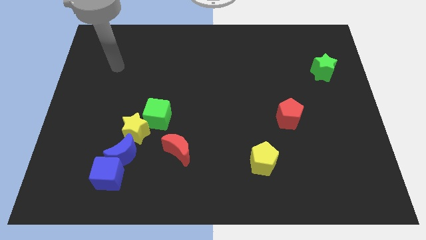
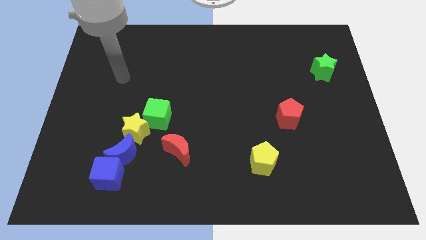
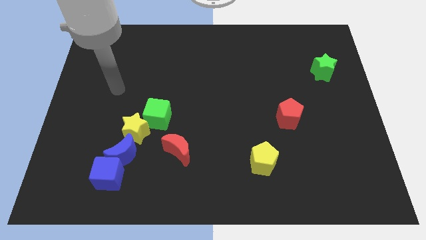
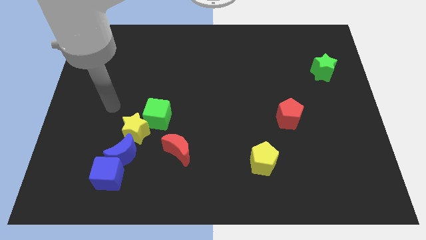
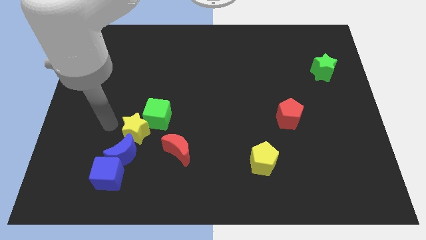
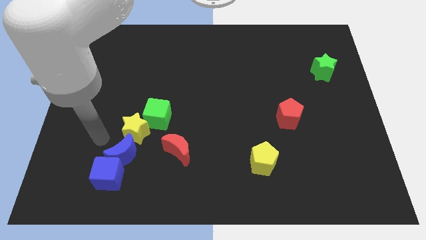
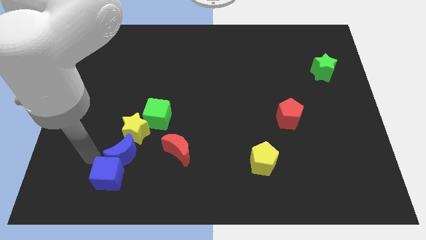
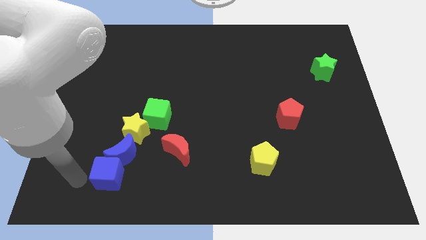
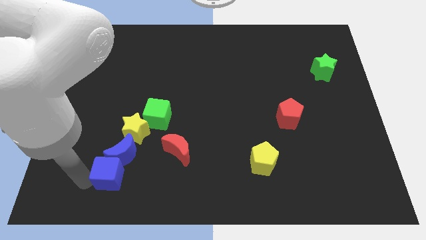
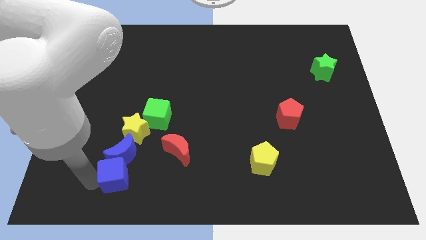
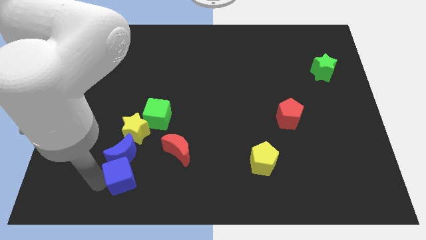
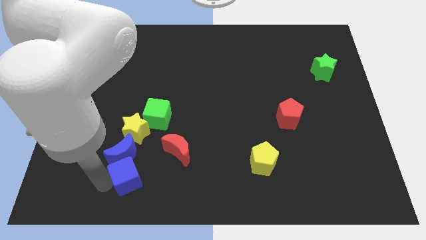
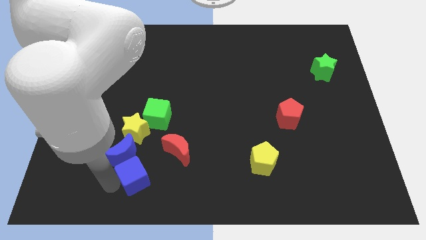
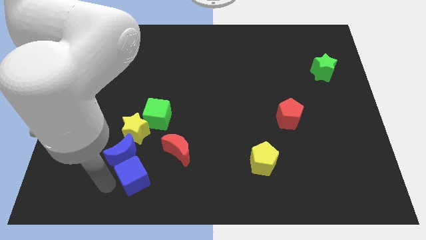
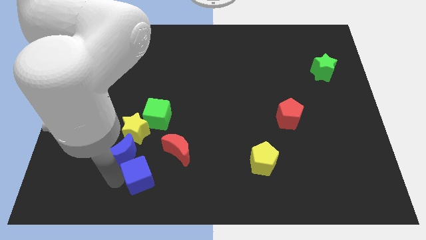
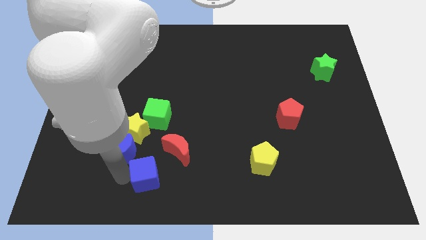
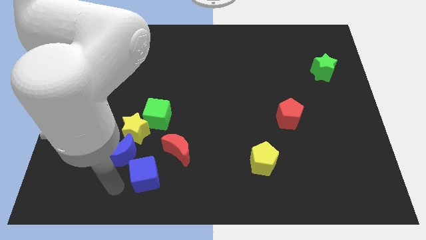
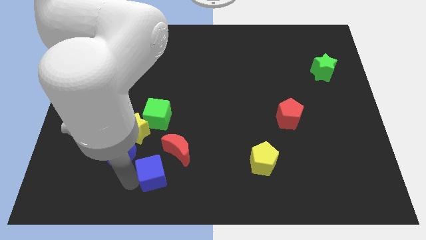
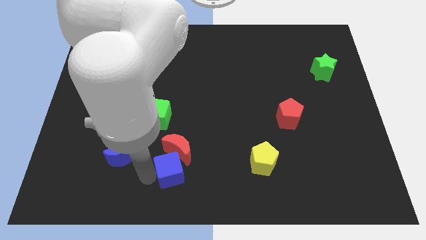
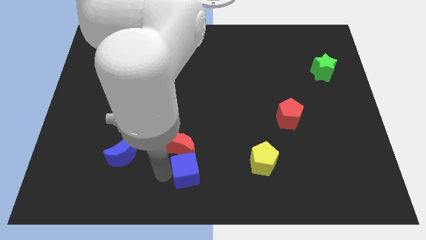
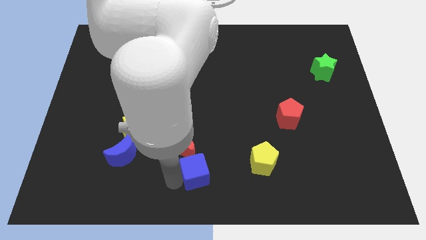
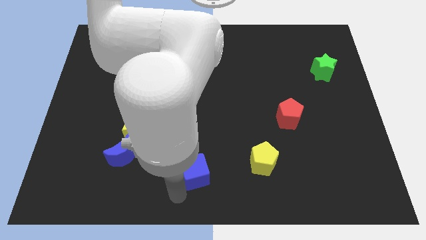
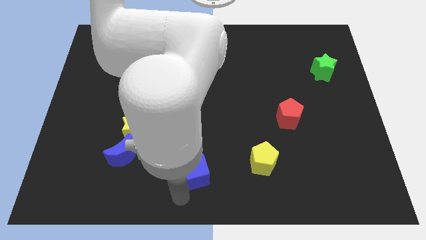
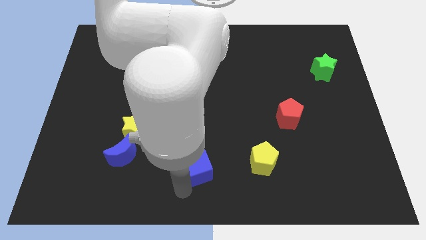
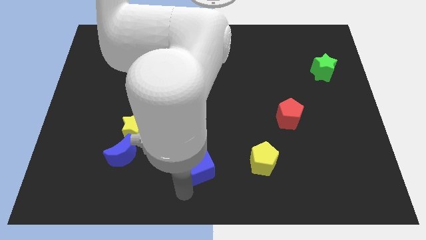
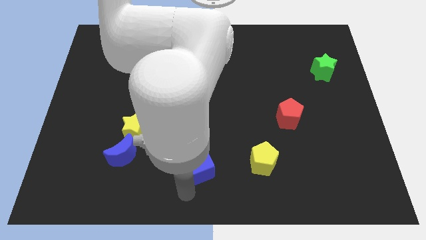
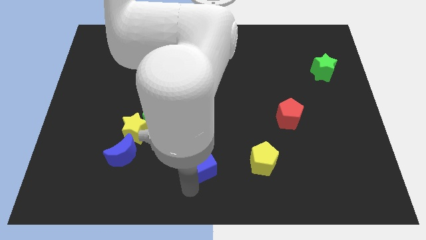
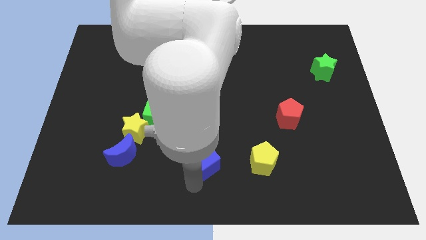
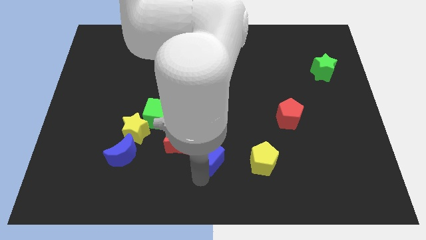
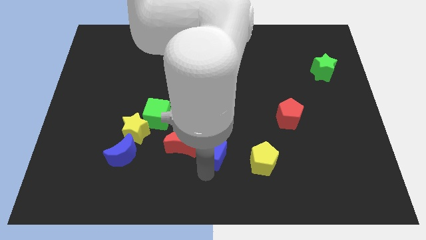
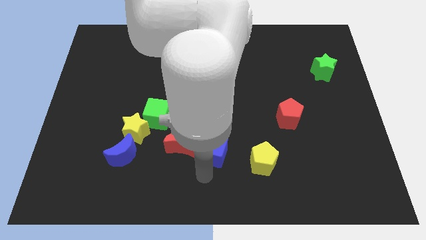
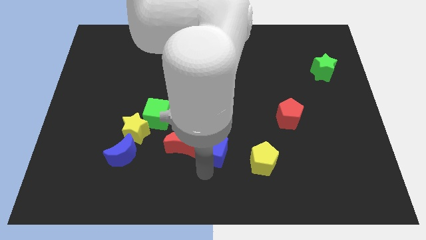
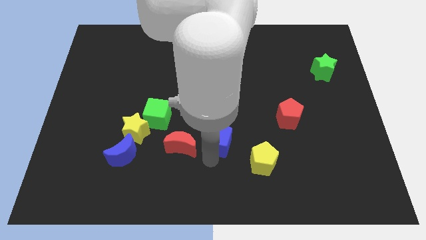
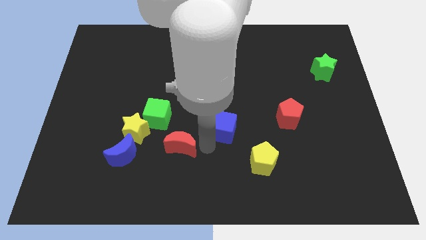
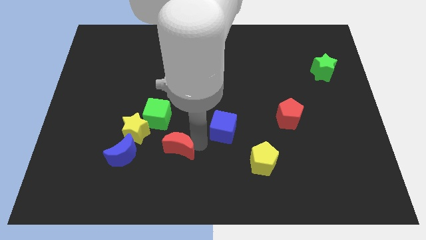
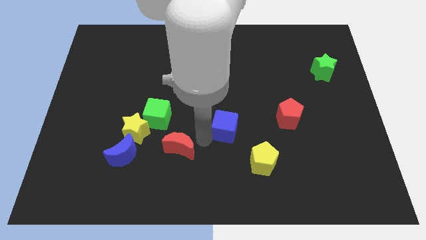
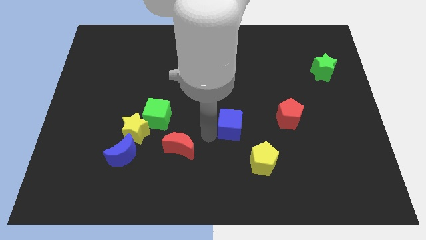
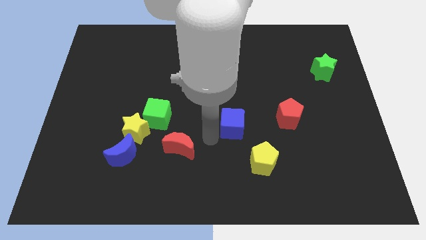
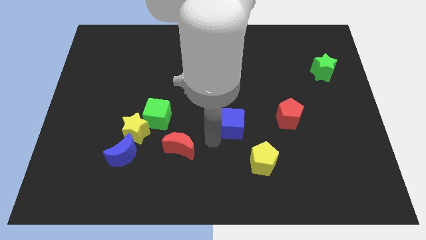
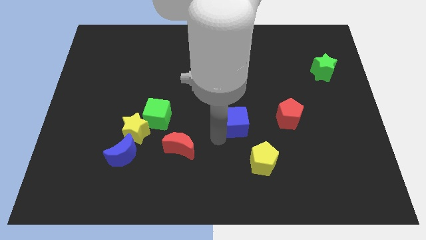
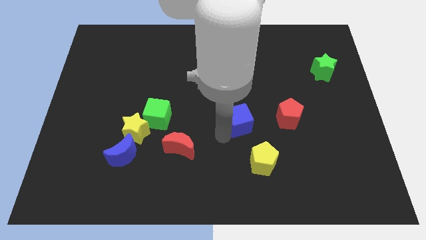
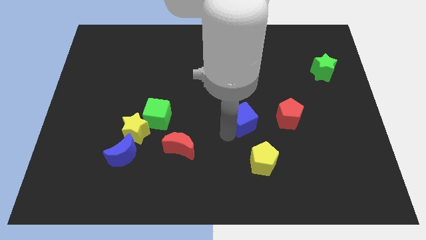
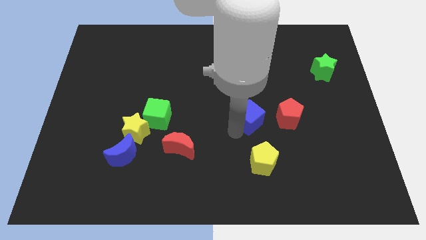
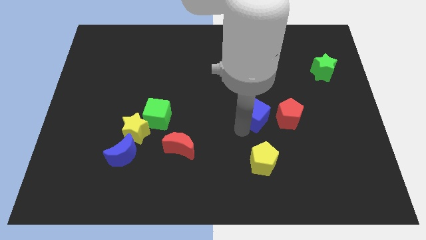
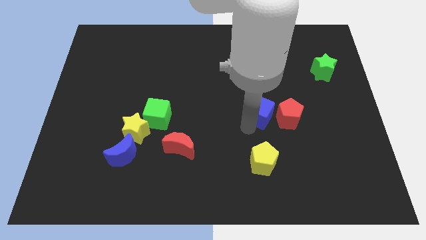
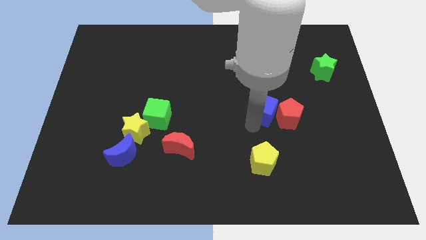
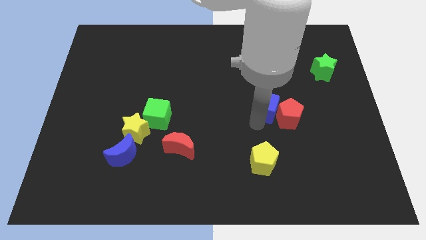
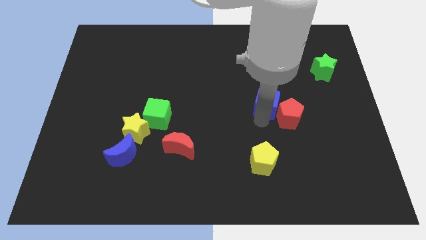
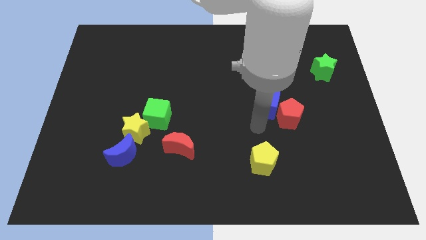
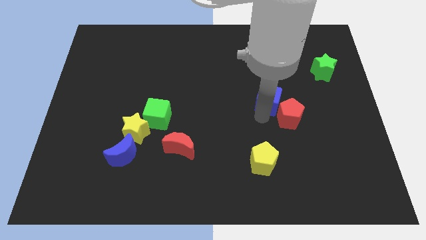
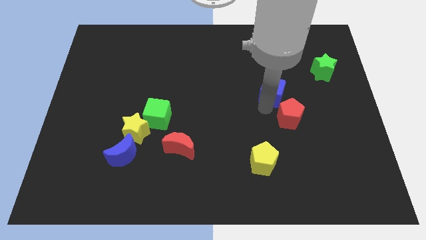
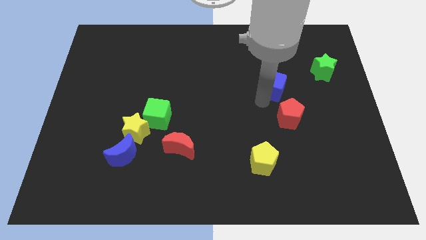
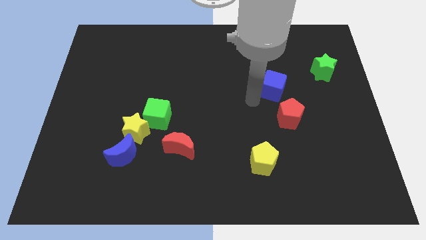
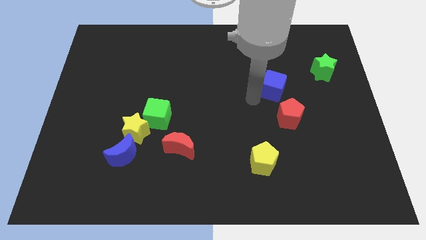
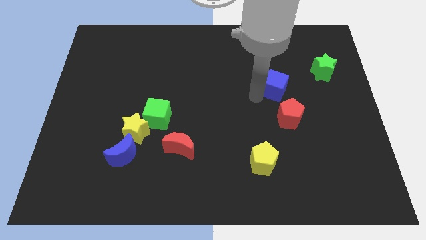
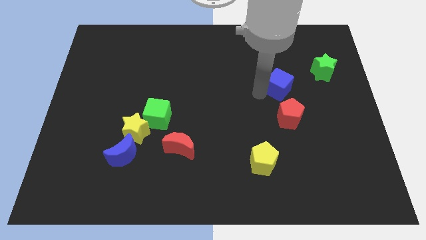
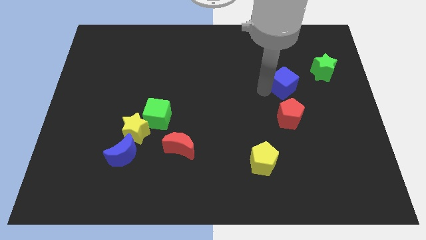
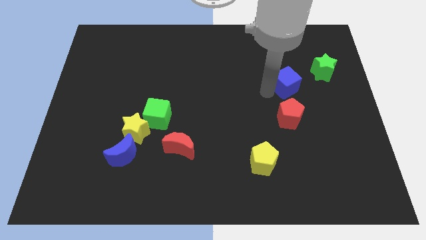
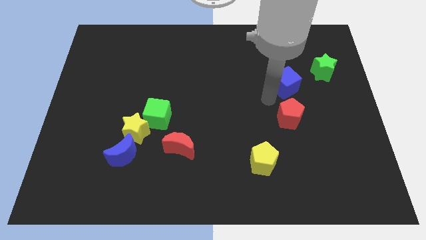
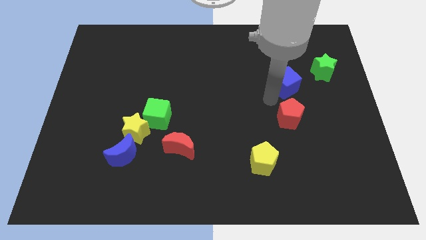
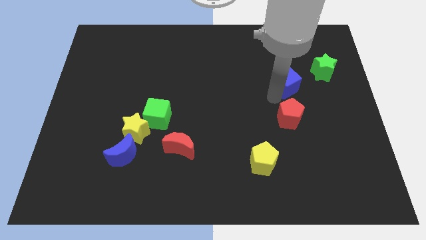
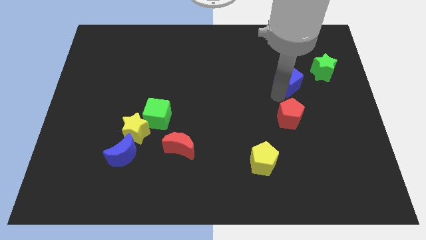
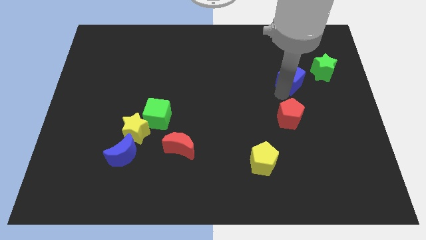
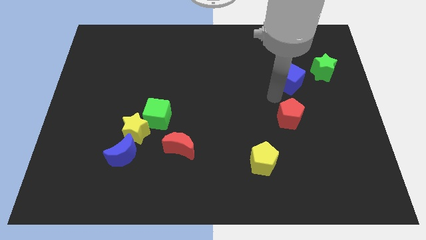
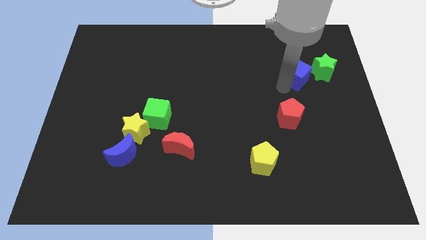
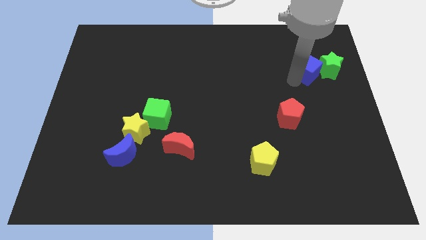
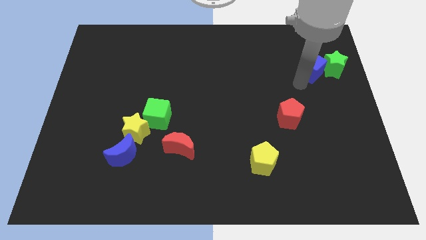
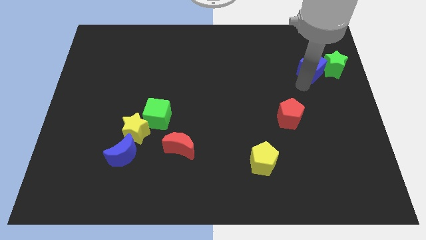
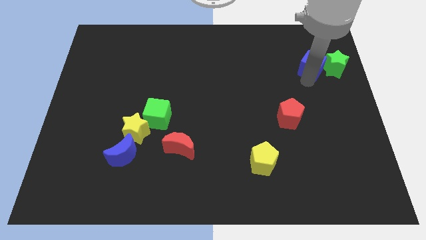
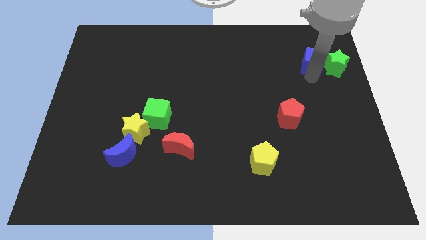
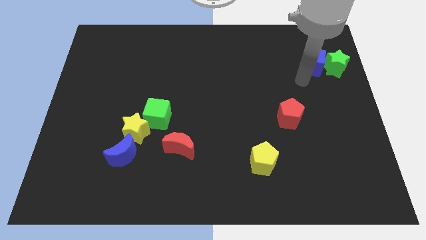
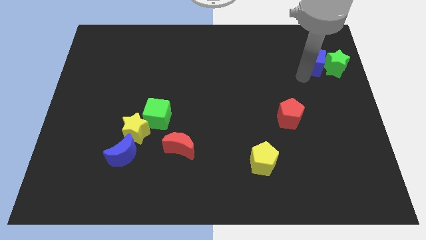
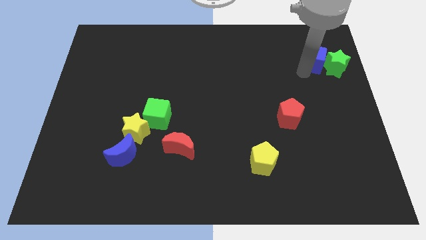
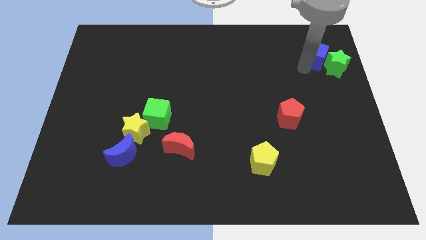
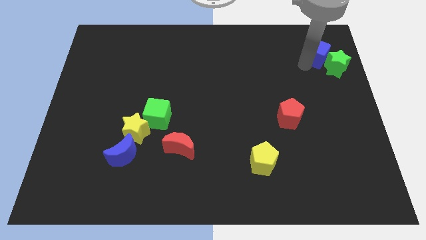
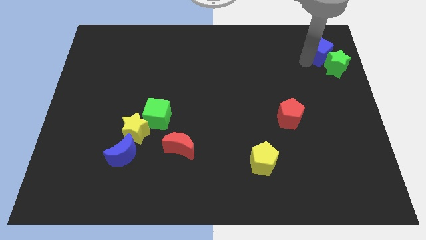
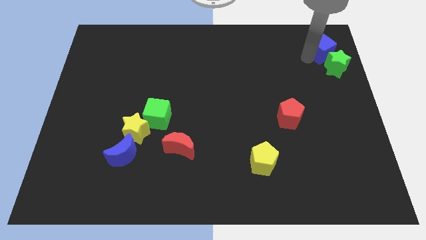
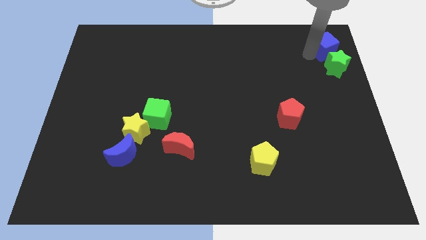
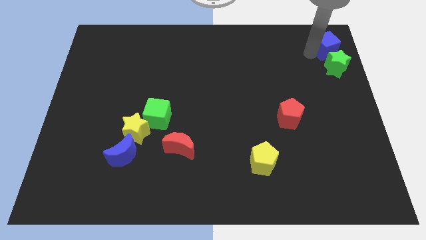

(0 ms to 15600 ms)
slide the blue cube to the top right
